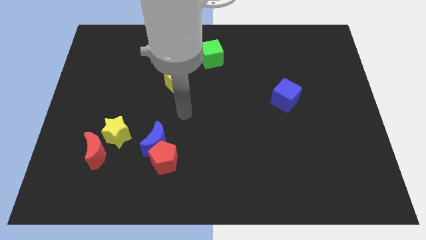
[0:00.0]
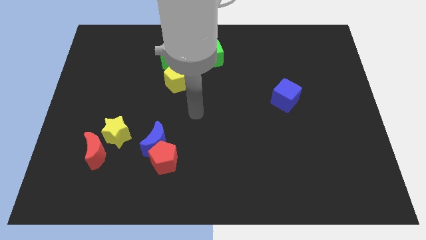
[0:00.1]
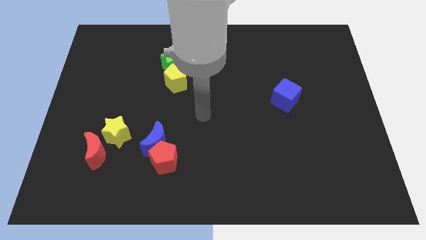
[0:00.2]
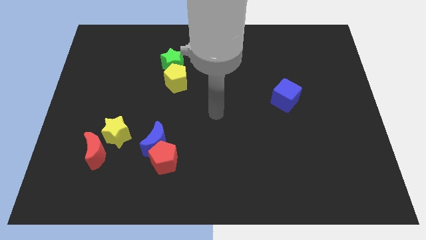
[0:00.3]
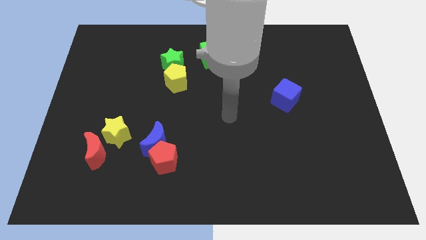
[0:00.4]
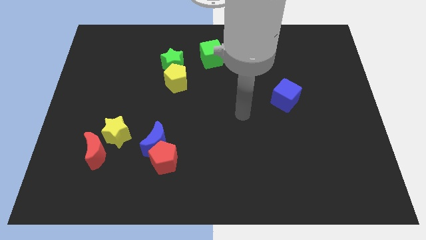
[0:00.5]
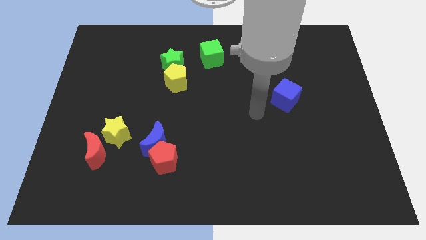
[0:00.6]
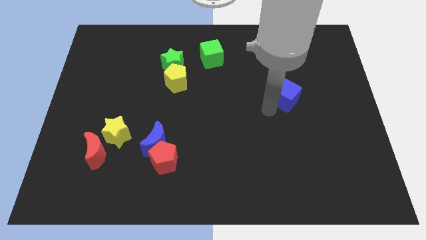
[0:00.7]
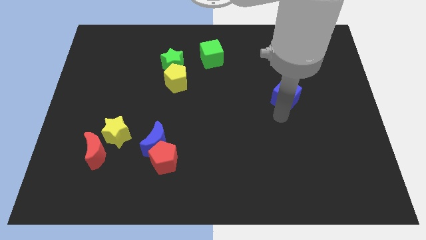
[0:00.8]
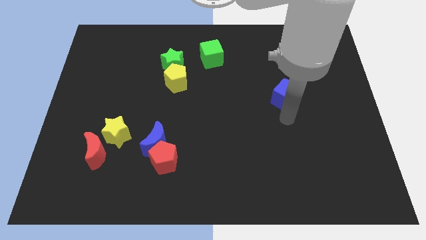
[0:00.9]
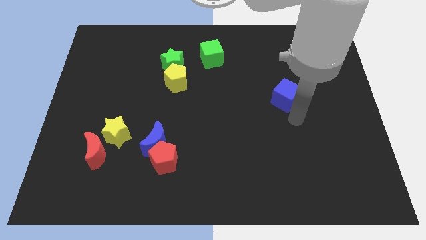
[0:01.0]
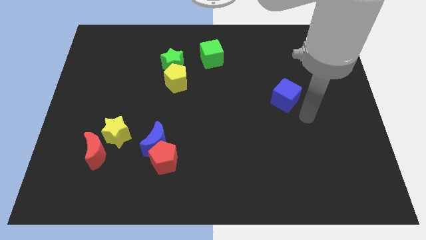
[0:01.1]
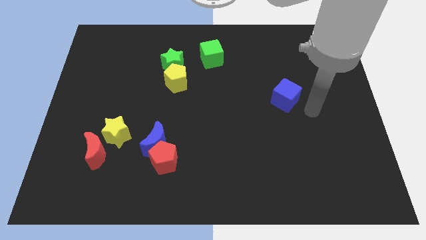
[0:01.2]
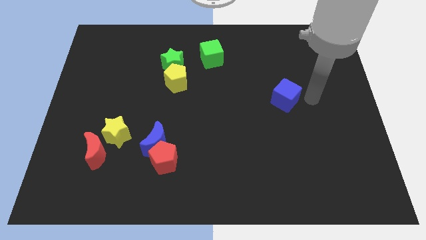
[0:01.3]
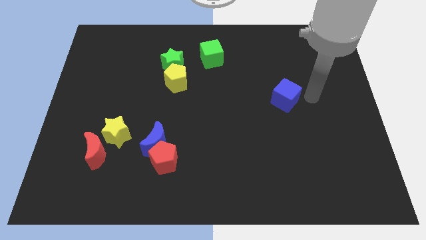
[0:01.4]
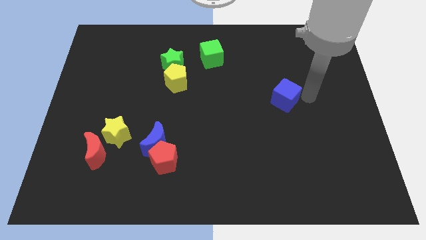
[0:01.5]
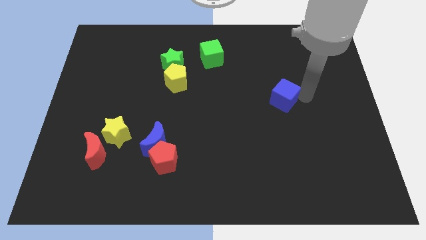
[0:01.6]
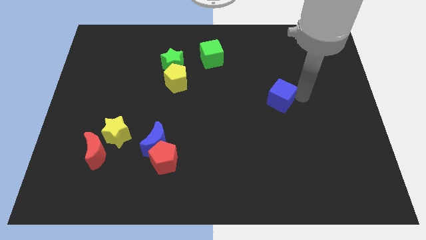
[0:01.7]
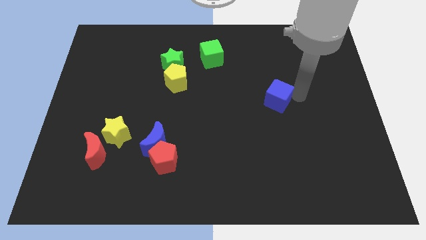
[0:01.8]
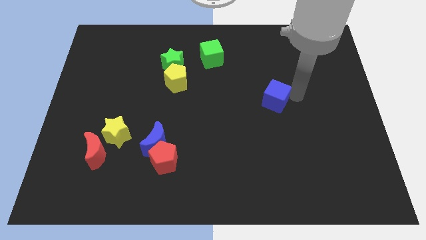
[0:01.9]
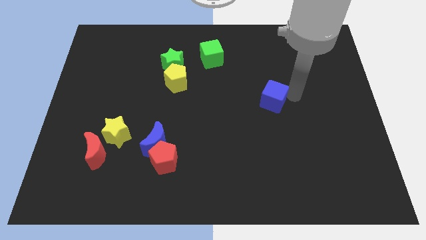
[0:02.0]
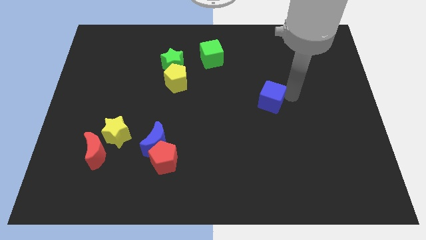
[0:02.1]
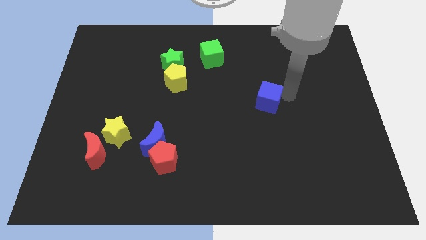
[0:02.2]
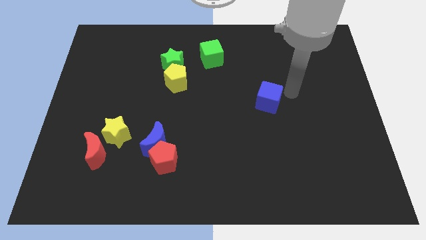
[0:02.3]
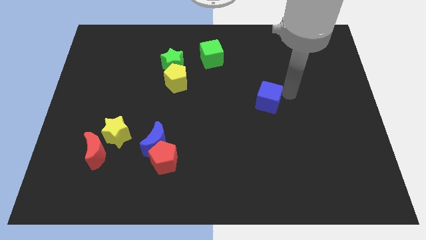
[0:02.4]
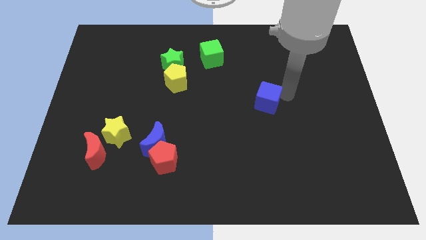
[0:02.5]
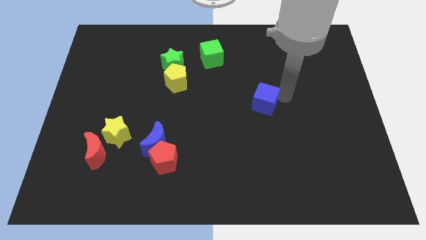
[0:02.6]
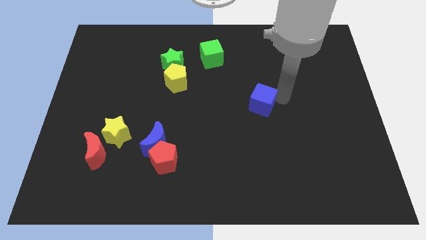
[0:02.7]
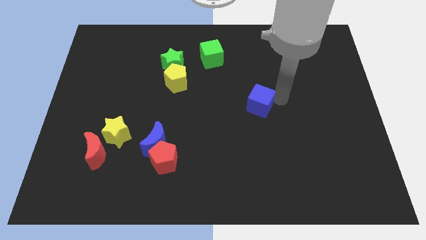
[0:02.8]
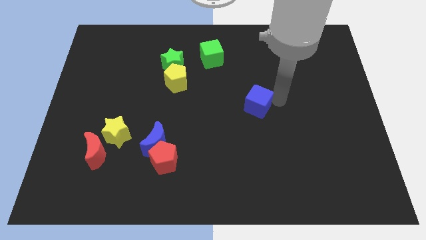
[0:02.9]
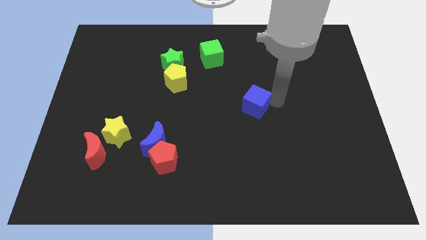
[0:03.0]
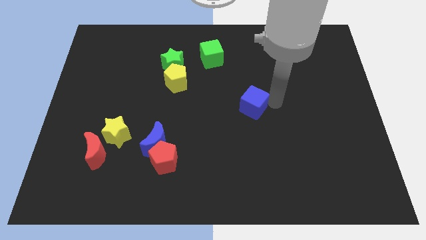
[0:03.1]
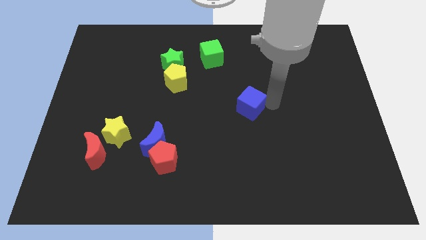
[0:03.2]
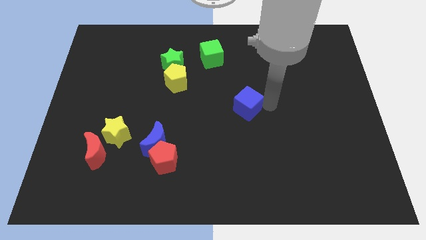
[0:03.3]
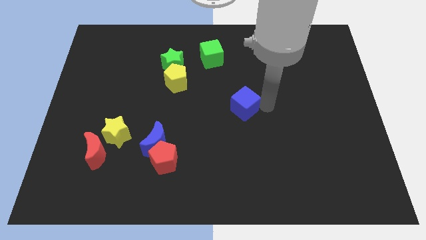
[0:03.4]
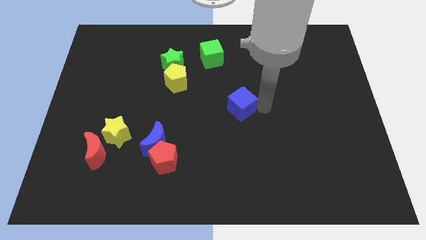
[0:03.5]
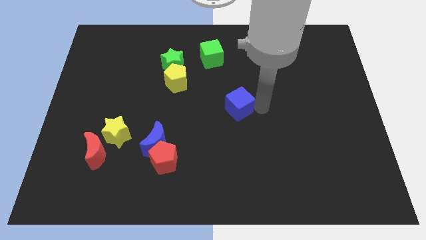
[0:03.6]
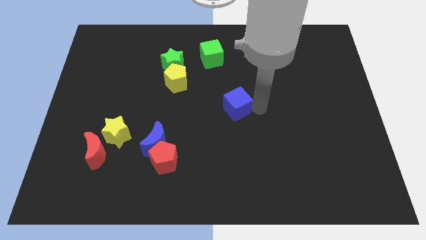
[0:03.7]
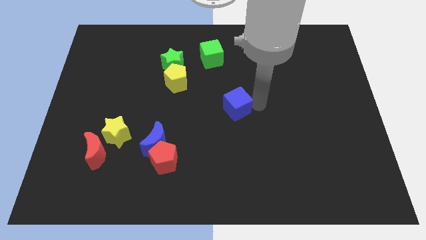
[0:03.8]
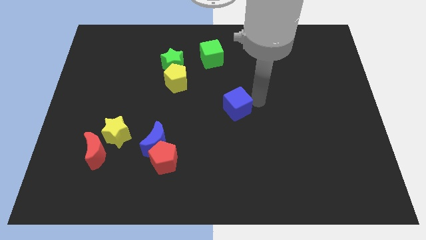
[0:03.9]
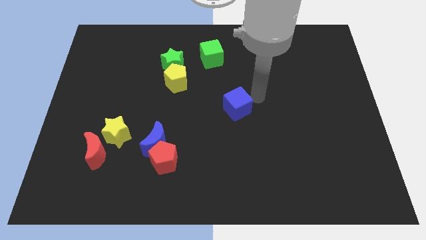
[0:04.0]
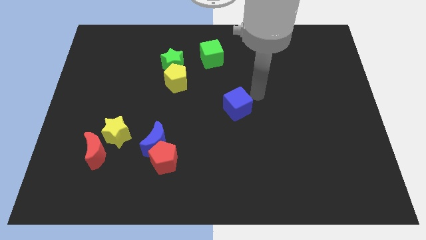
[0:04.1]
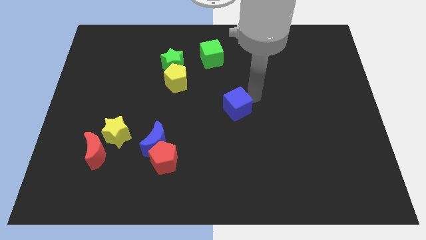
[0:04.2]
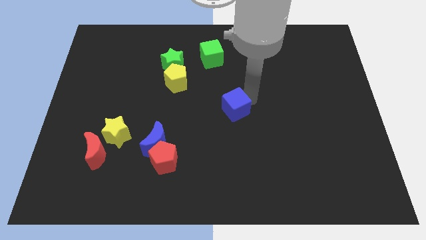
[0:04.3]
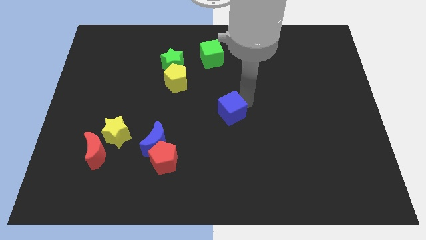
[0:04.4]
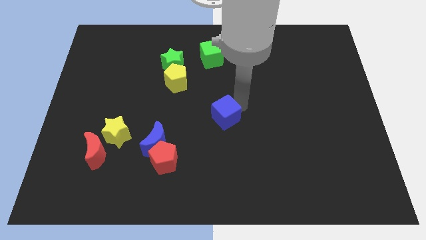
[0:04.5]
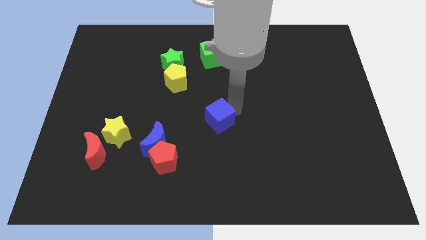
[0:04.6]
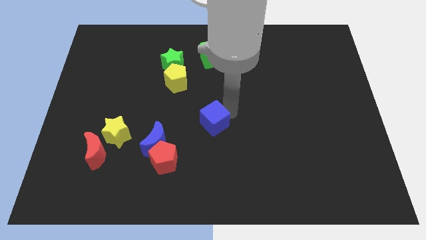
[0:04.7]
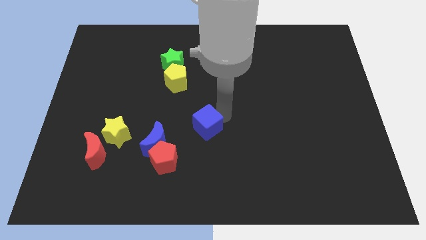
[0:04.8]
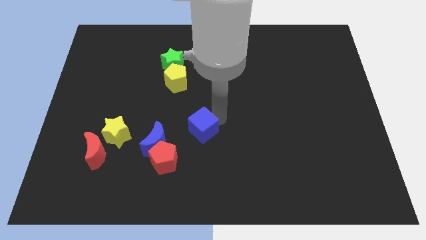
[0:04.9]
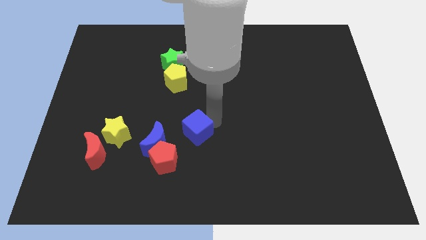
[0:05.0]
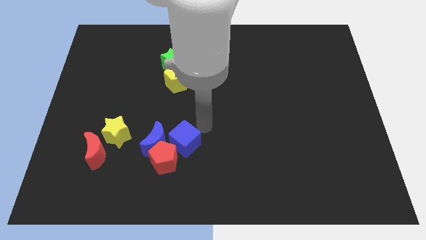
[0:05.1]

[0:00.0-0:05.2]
move the blue cube towards the red pentagon

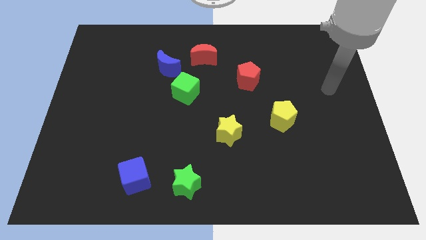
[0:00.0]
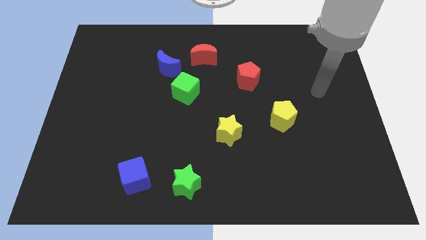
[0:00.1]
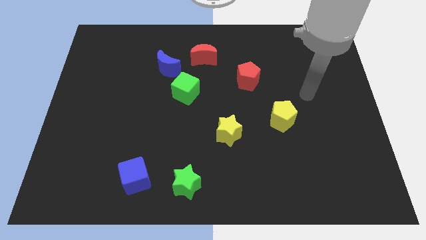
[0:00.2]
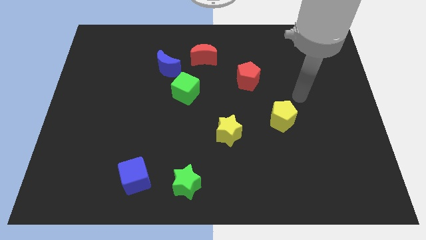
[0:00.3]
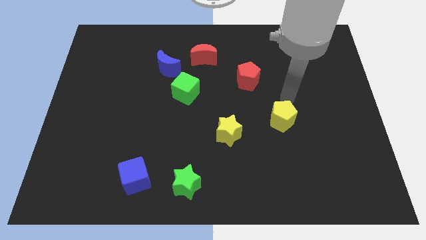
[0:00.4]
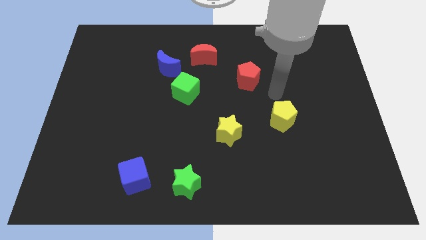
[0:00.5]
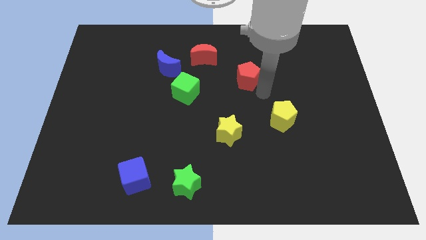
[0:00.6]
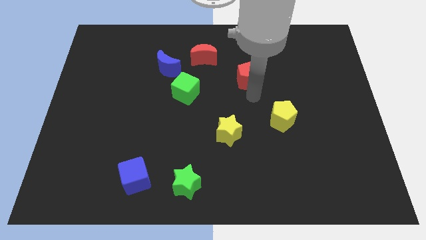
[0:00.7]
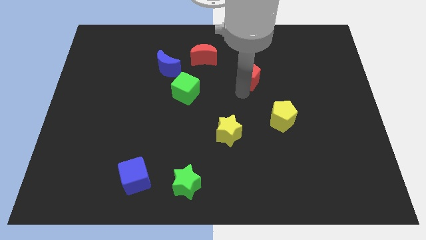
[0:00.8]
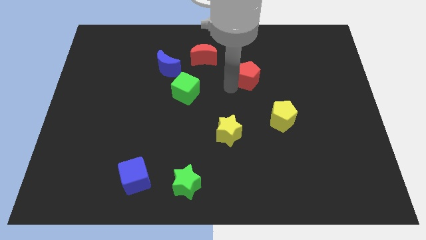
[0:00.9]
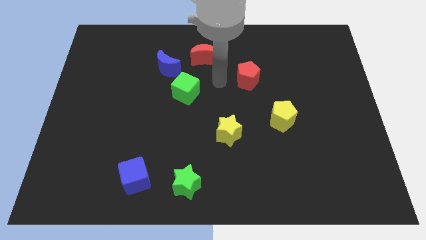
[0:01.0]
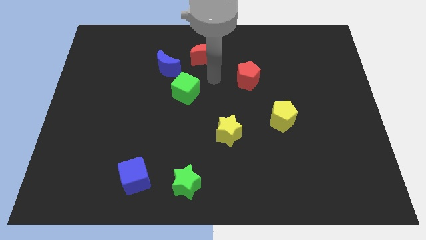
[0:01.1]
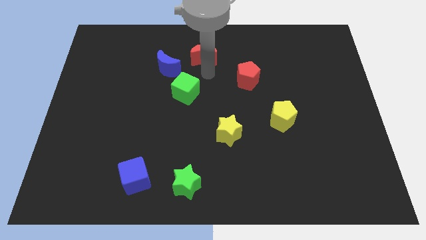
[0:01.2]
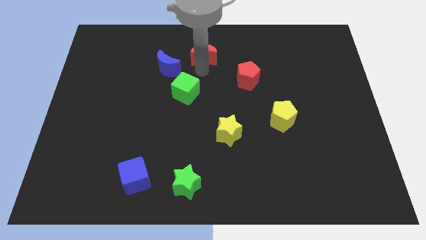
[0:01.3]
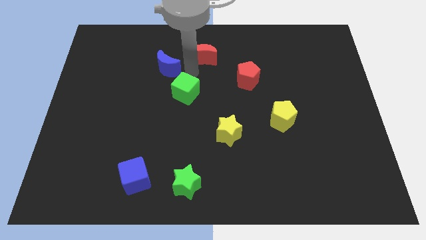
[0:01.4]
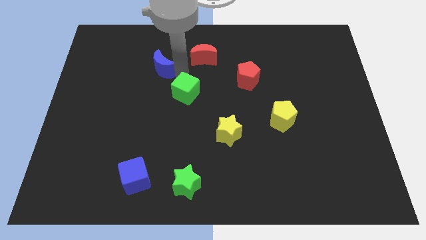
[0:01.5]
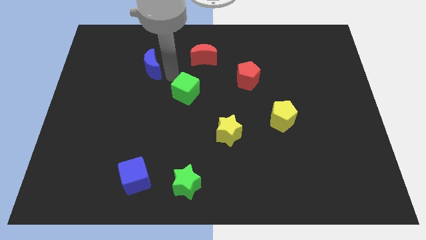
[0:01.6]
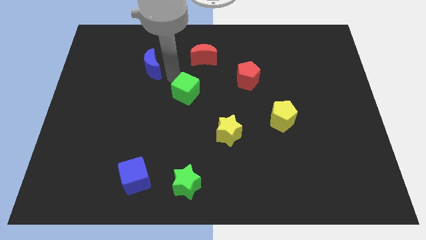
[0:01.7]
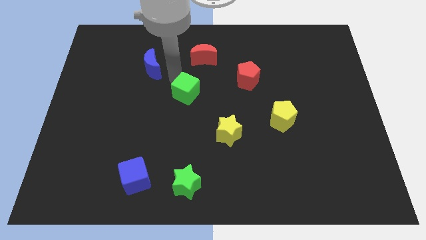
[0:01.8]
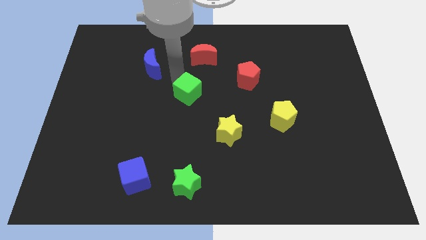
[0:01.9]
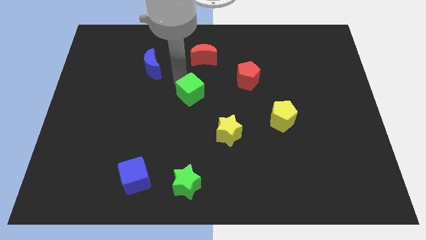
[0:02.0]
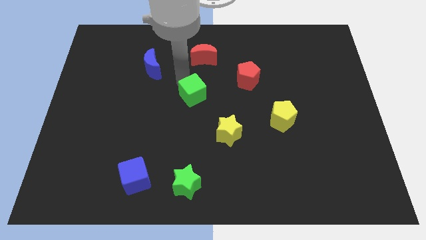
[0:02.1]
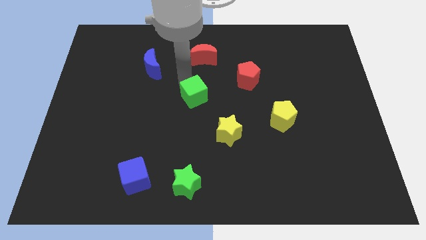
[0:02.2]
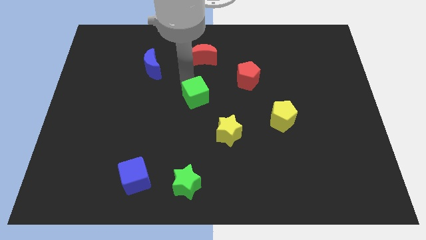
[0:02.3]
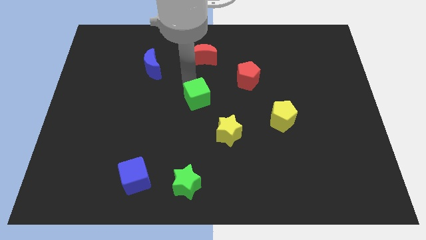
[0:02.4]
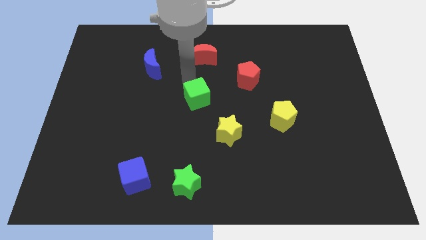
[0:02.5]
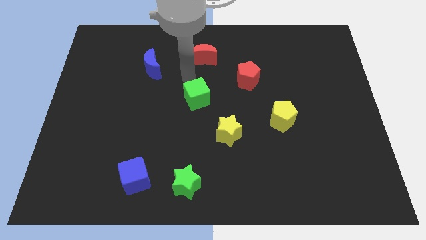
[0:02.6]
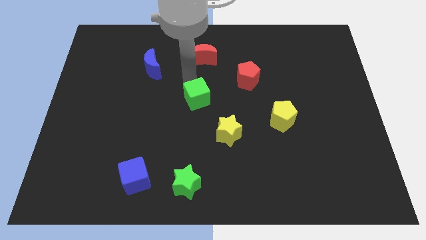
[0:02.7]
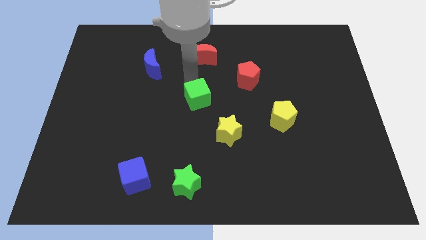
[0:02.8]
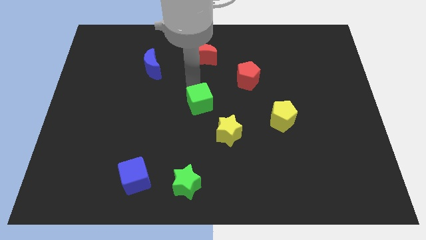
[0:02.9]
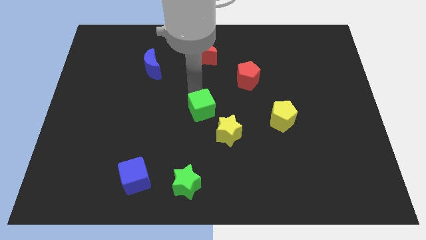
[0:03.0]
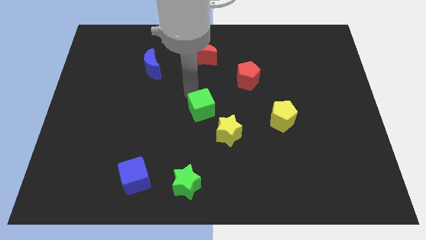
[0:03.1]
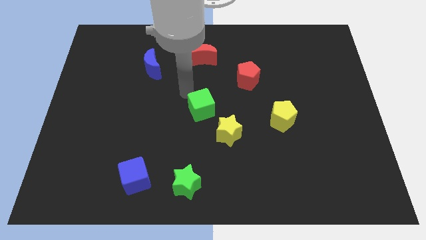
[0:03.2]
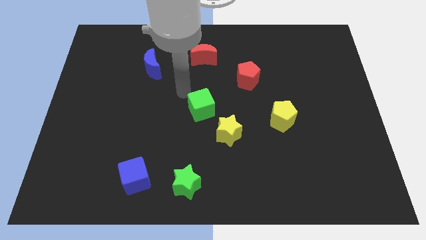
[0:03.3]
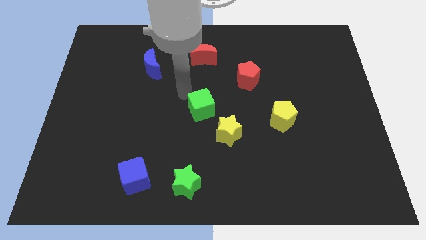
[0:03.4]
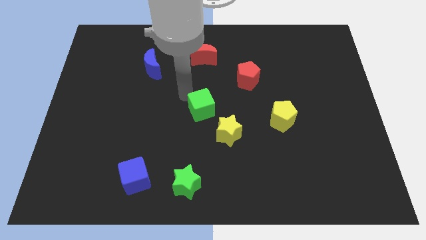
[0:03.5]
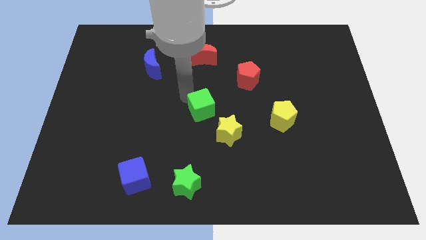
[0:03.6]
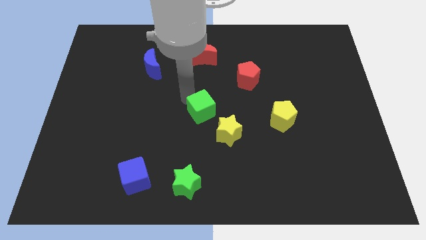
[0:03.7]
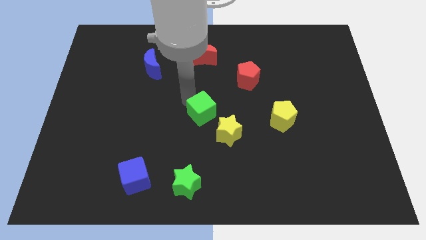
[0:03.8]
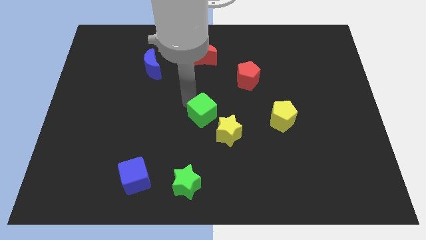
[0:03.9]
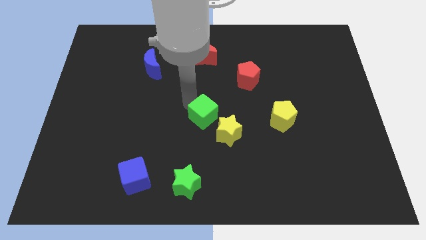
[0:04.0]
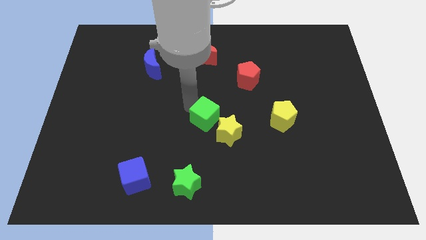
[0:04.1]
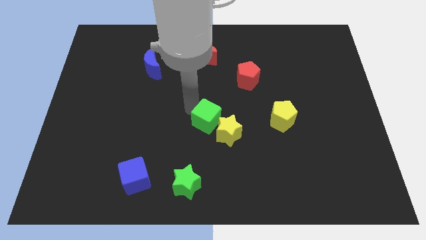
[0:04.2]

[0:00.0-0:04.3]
slide the green cube next to the yellow star
